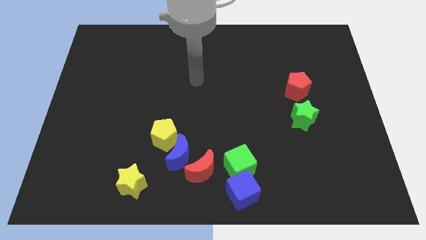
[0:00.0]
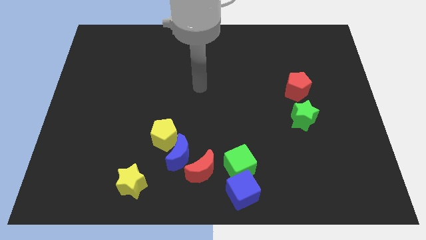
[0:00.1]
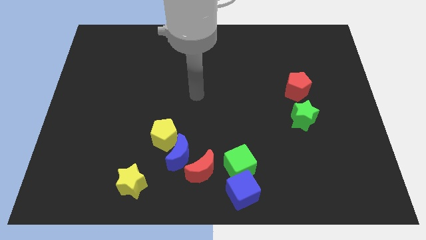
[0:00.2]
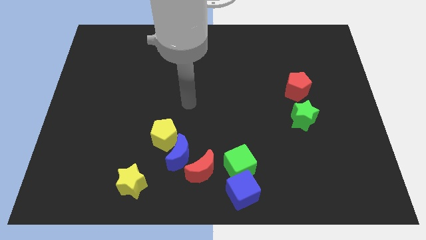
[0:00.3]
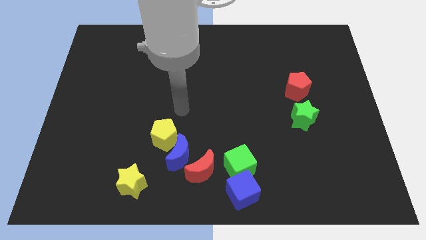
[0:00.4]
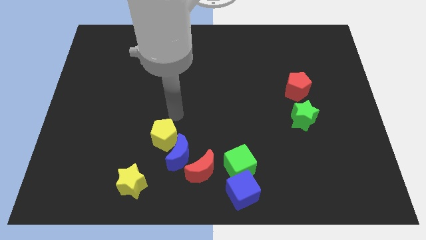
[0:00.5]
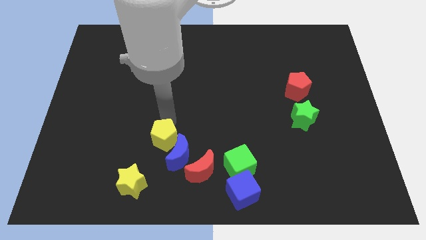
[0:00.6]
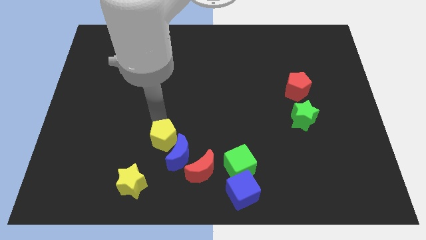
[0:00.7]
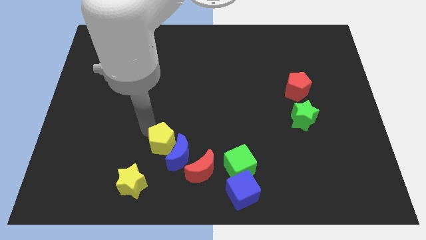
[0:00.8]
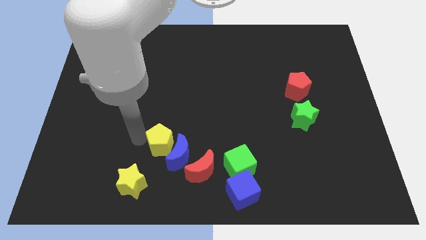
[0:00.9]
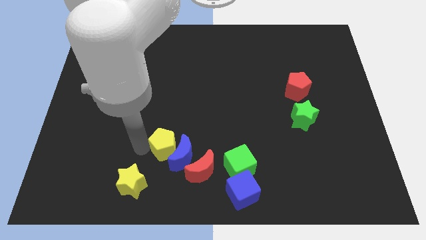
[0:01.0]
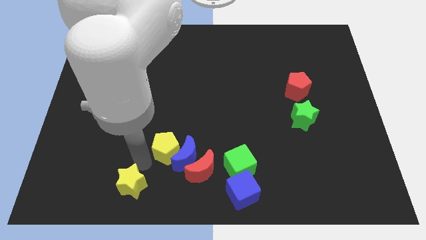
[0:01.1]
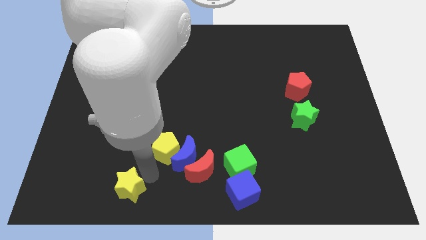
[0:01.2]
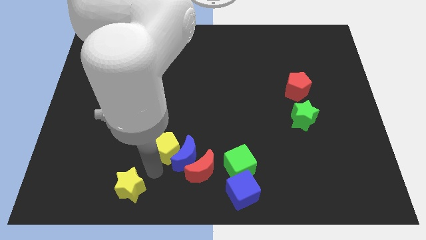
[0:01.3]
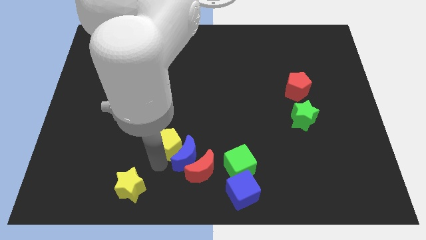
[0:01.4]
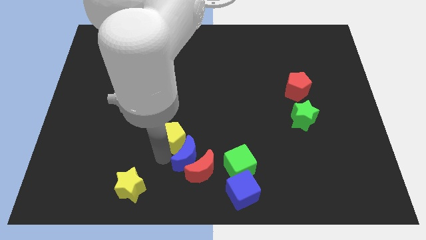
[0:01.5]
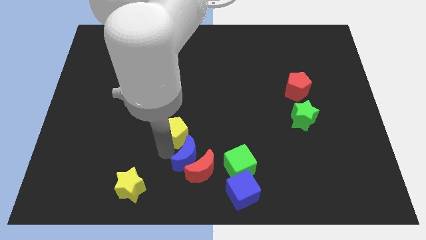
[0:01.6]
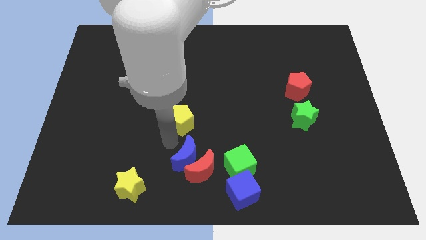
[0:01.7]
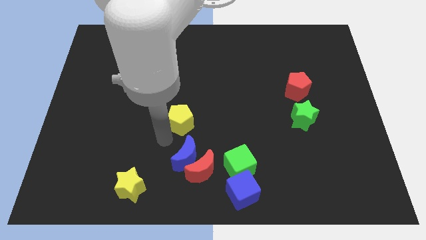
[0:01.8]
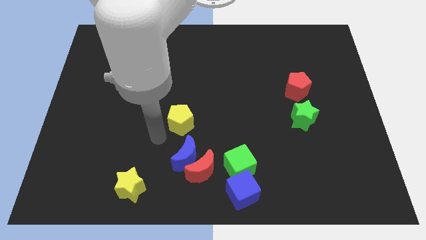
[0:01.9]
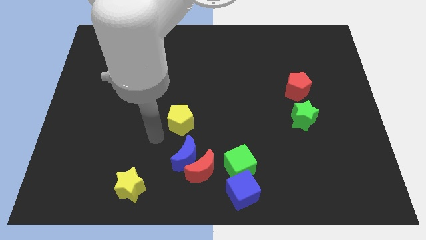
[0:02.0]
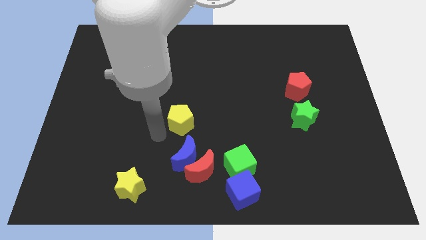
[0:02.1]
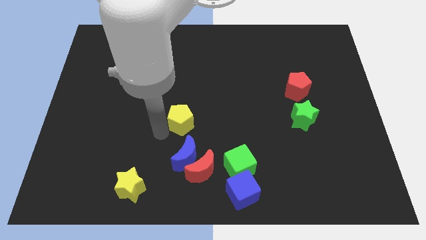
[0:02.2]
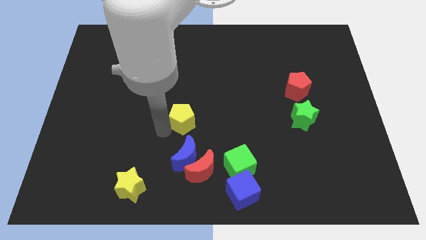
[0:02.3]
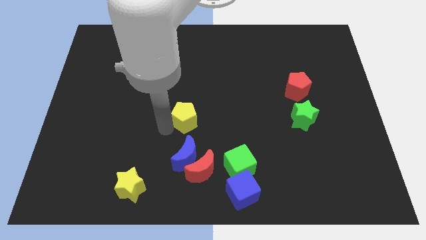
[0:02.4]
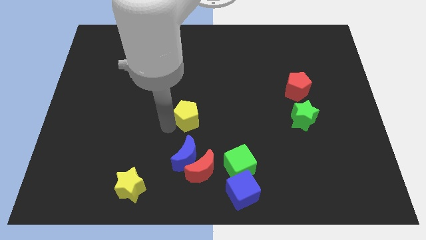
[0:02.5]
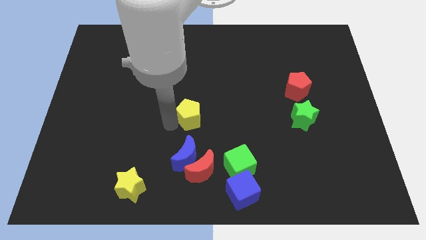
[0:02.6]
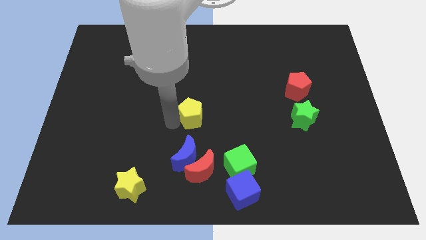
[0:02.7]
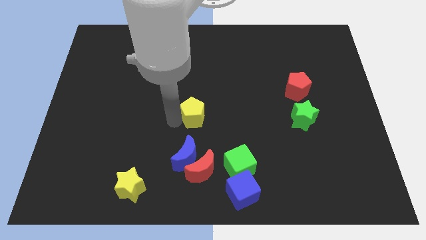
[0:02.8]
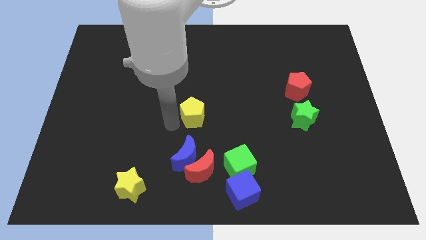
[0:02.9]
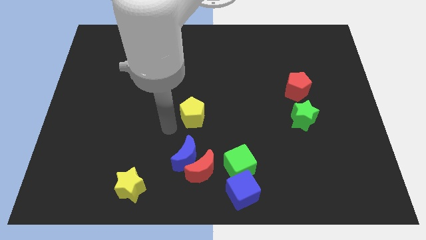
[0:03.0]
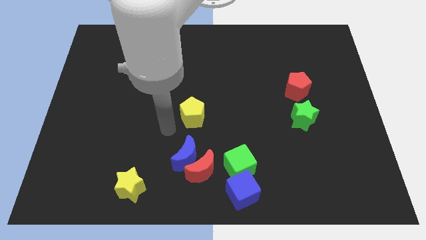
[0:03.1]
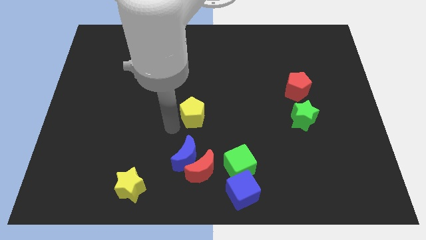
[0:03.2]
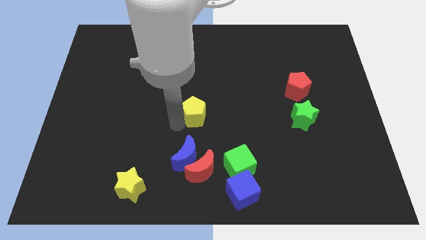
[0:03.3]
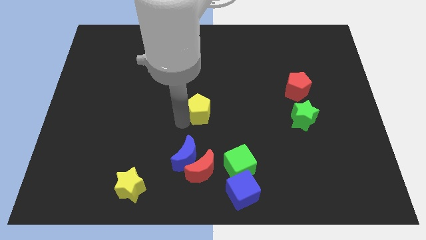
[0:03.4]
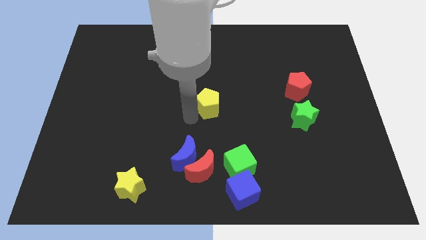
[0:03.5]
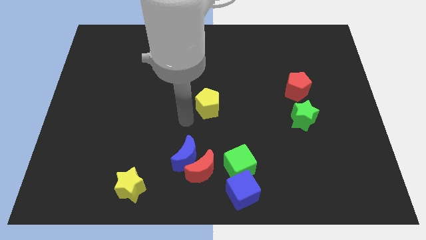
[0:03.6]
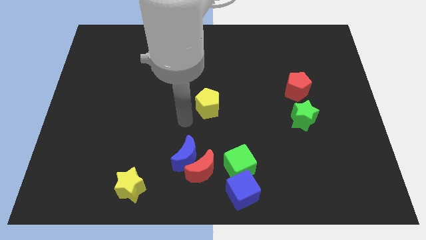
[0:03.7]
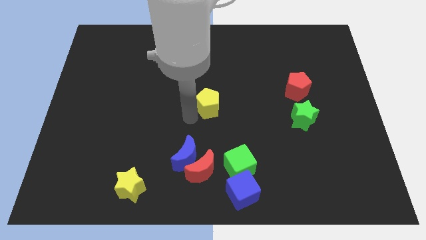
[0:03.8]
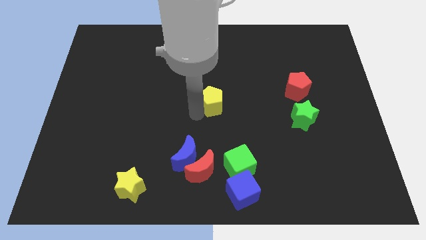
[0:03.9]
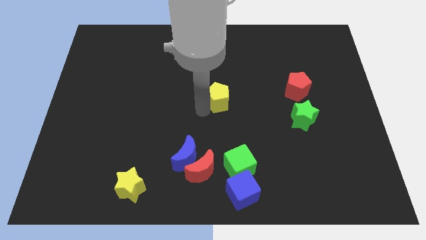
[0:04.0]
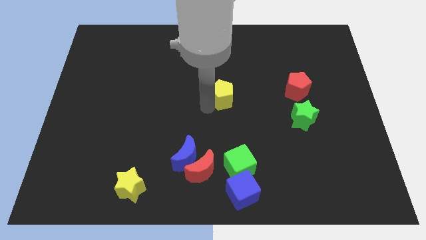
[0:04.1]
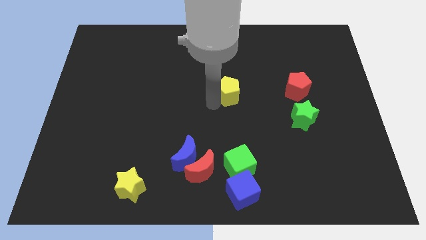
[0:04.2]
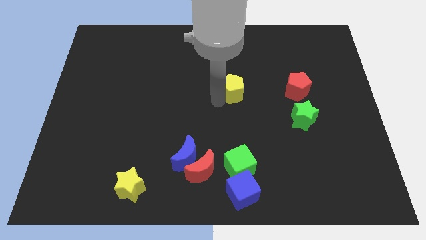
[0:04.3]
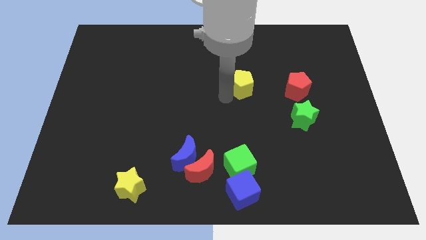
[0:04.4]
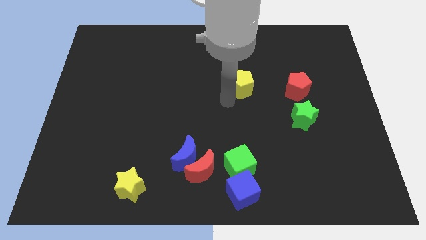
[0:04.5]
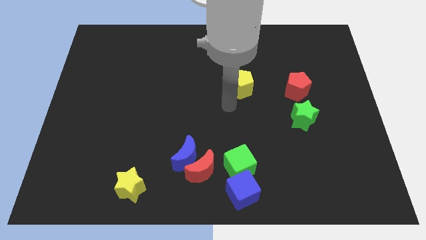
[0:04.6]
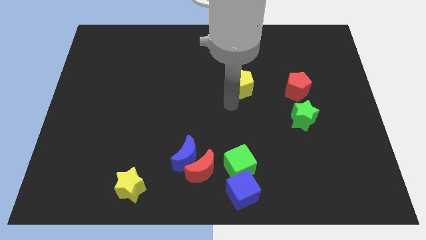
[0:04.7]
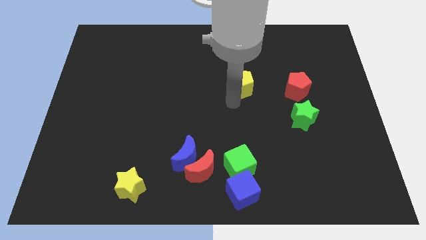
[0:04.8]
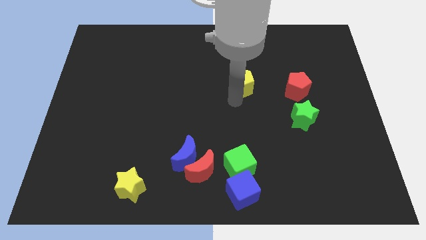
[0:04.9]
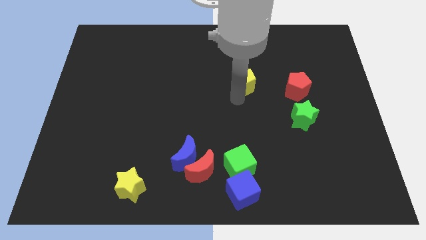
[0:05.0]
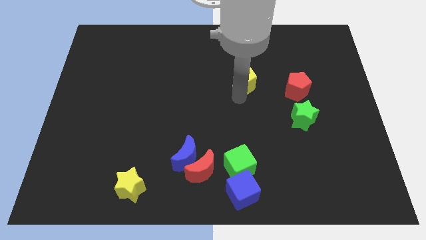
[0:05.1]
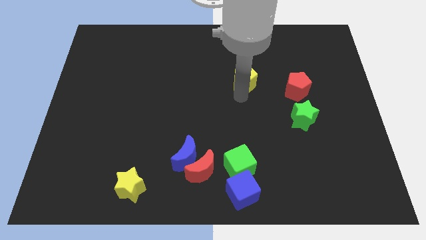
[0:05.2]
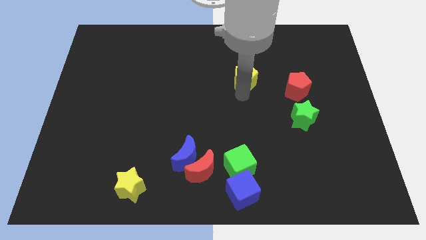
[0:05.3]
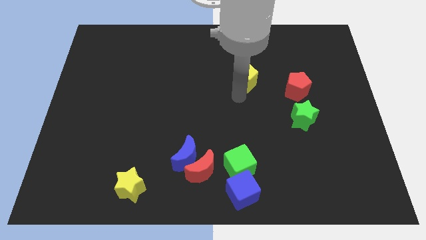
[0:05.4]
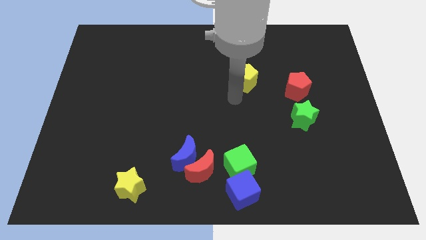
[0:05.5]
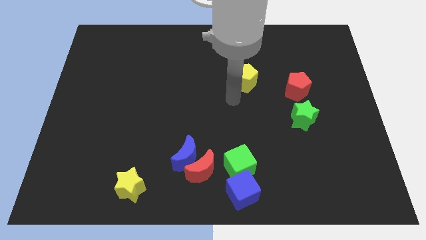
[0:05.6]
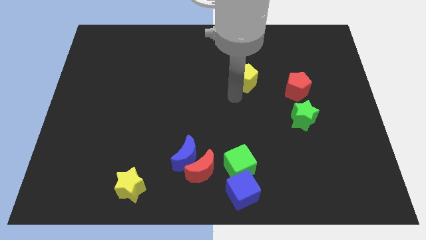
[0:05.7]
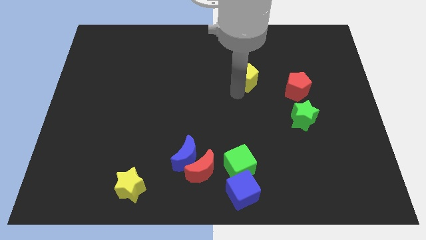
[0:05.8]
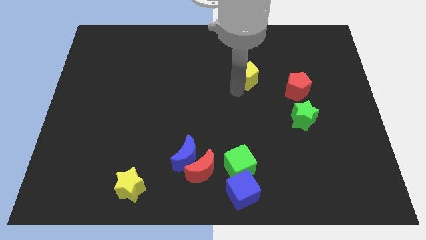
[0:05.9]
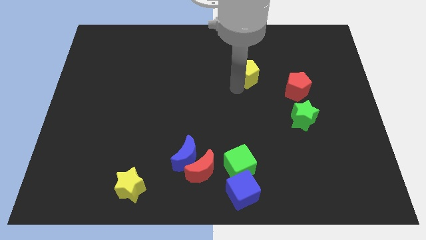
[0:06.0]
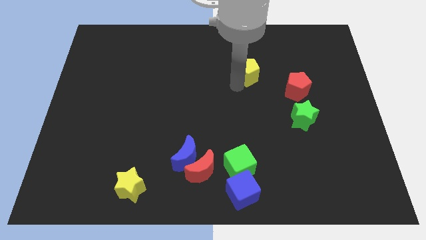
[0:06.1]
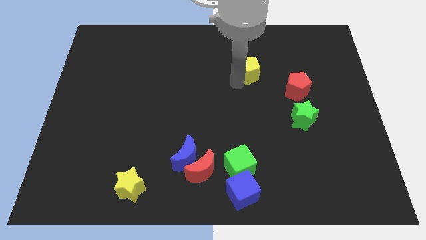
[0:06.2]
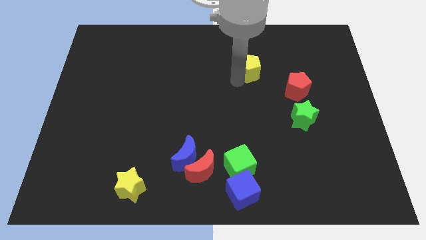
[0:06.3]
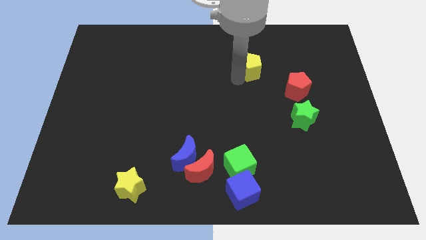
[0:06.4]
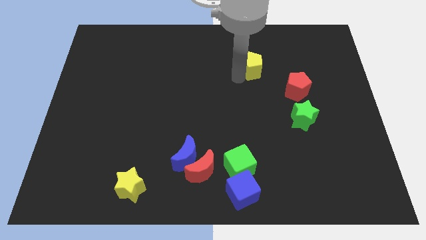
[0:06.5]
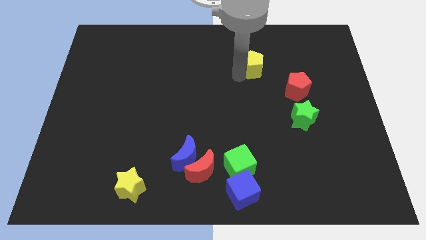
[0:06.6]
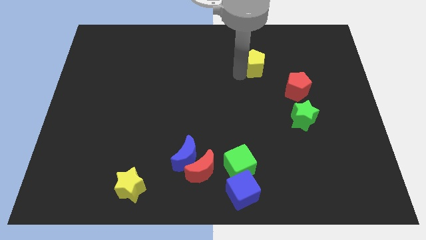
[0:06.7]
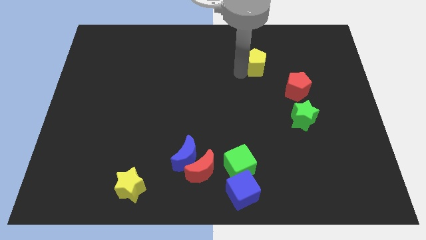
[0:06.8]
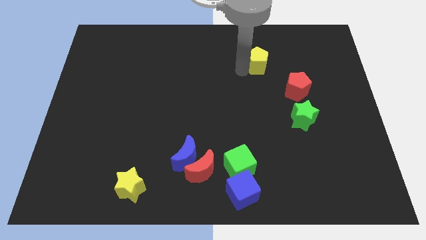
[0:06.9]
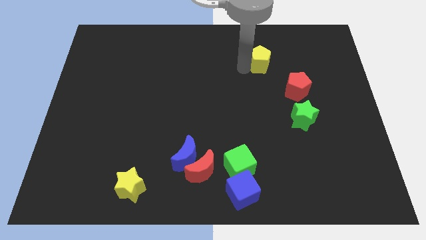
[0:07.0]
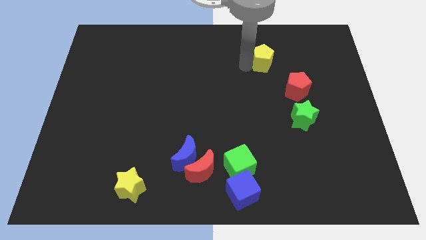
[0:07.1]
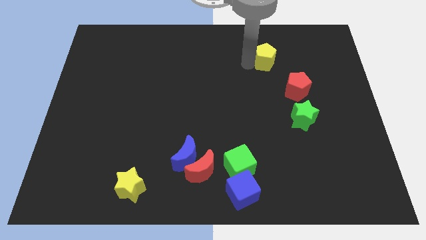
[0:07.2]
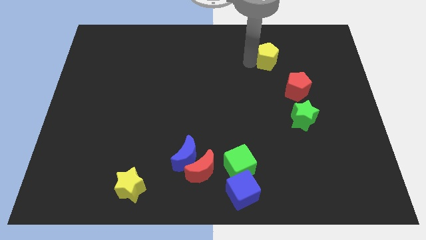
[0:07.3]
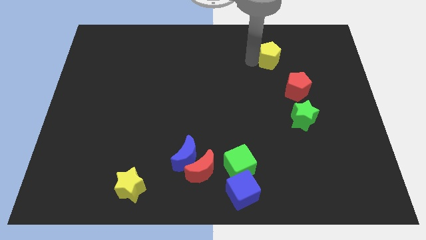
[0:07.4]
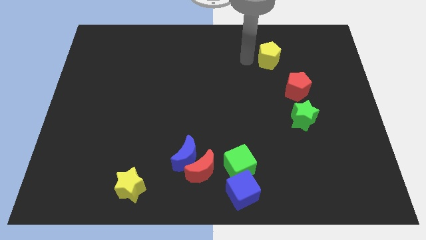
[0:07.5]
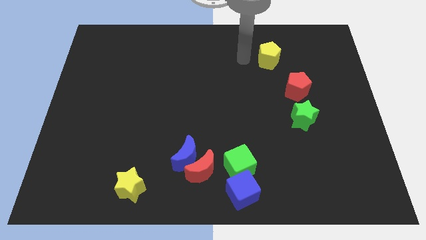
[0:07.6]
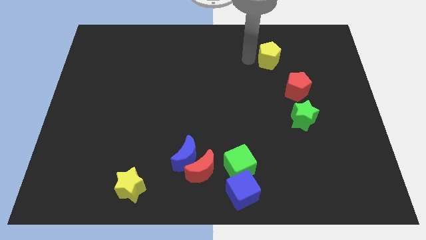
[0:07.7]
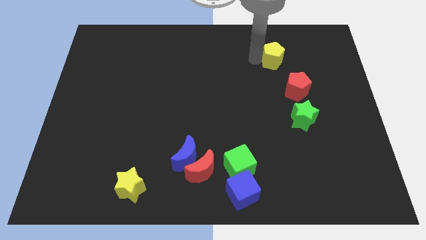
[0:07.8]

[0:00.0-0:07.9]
put the yellow pentagon to the top side of the red pentagon

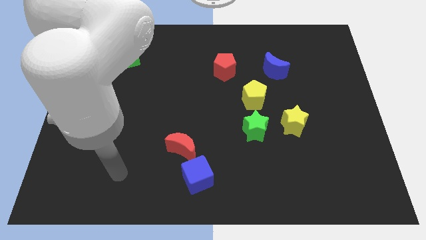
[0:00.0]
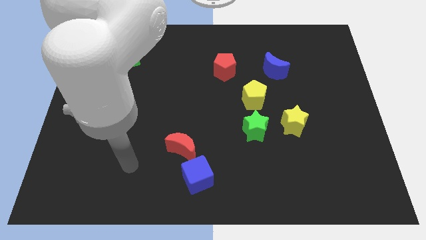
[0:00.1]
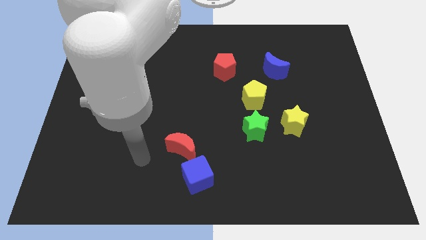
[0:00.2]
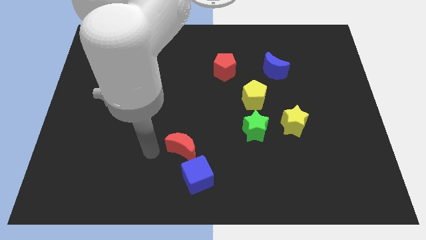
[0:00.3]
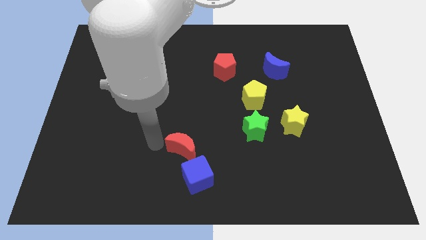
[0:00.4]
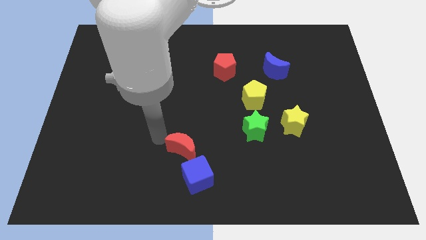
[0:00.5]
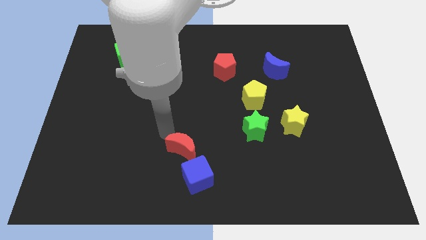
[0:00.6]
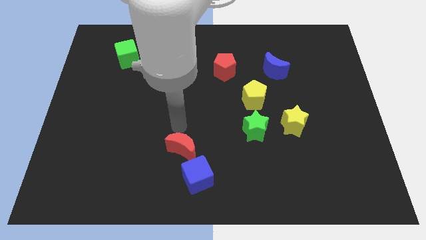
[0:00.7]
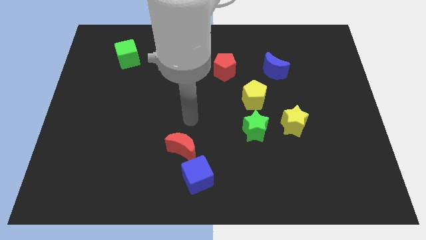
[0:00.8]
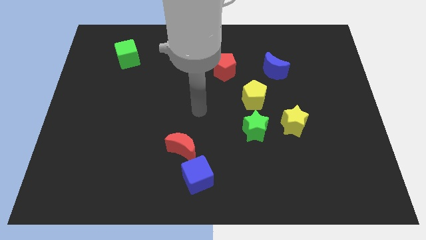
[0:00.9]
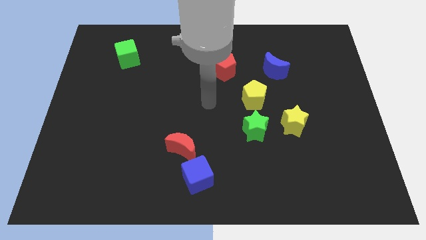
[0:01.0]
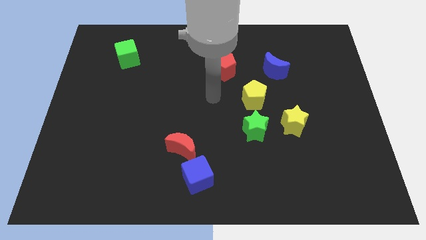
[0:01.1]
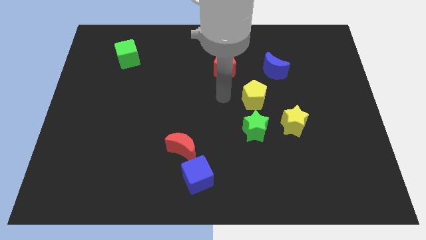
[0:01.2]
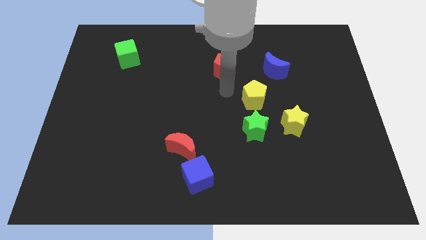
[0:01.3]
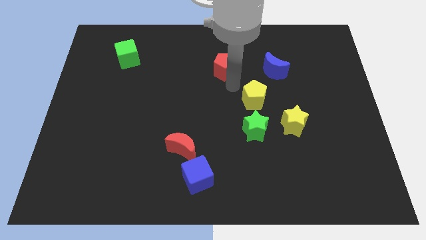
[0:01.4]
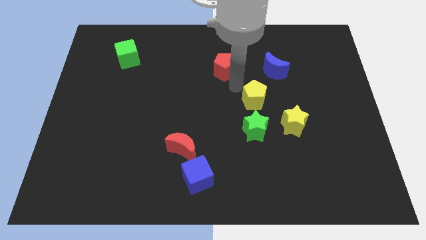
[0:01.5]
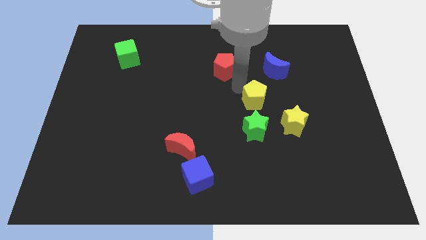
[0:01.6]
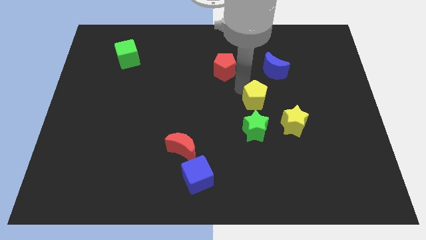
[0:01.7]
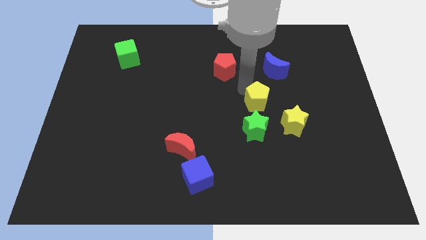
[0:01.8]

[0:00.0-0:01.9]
move the yellow pentagon to the top right side of the green star
